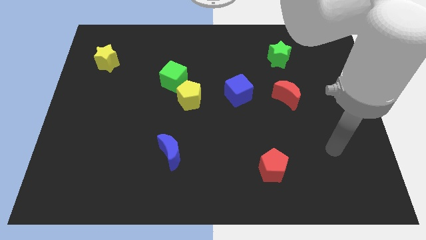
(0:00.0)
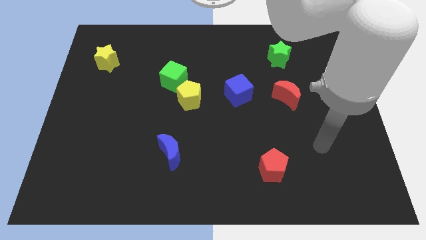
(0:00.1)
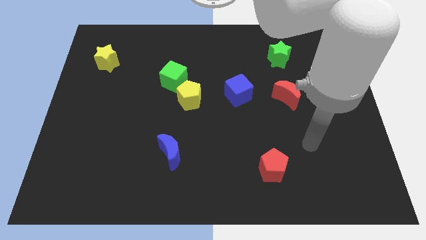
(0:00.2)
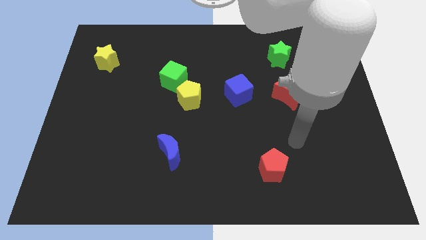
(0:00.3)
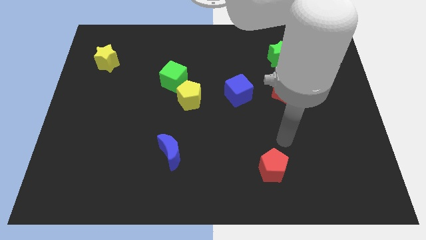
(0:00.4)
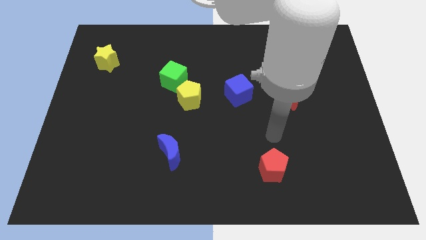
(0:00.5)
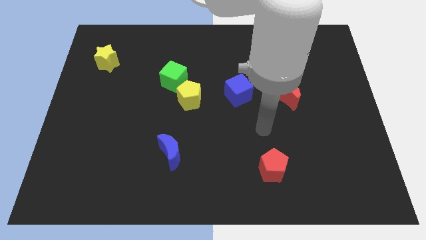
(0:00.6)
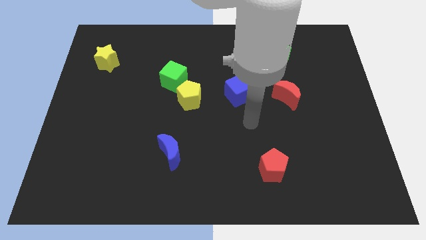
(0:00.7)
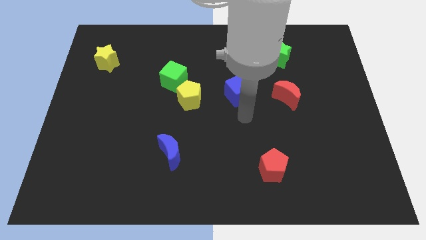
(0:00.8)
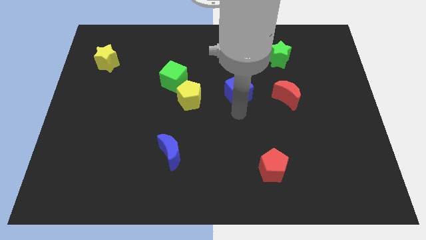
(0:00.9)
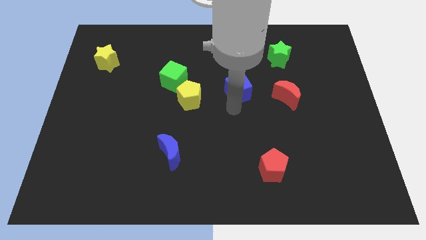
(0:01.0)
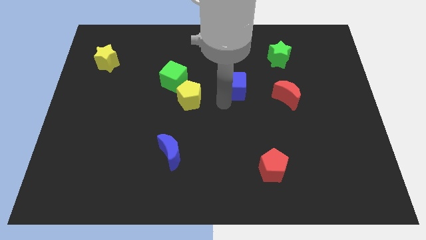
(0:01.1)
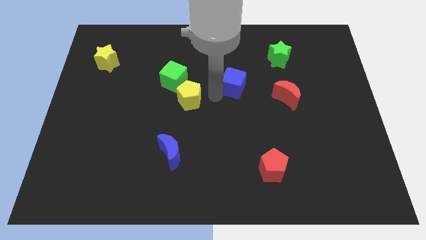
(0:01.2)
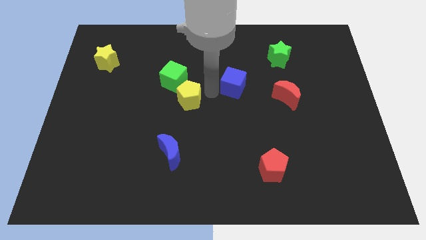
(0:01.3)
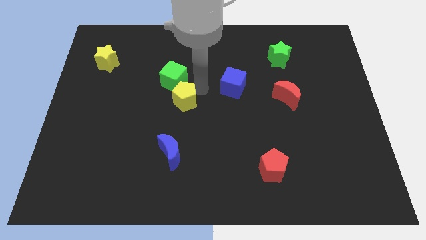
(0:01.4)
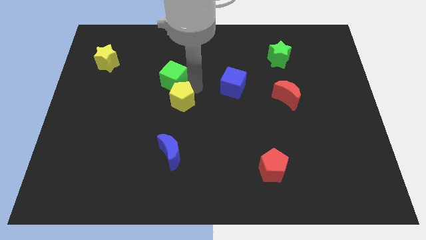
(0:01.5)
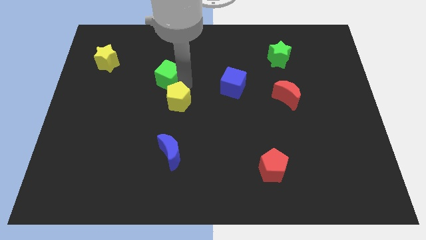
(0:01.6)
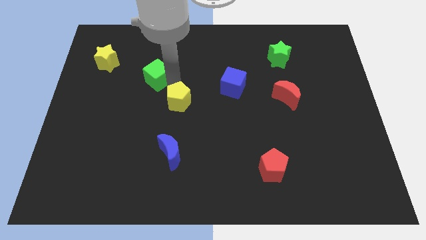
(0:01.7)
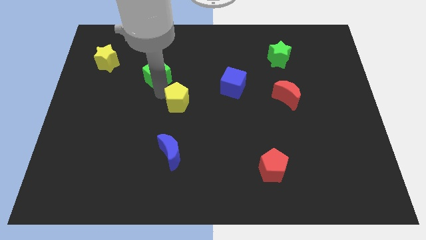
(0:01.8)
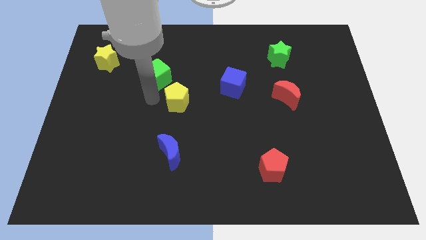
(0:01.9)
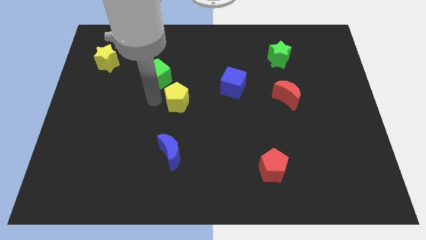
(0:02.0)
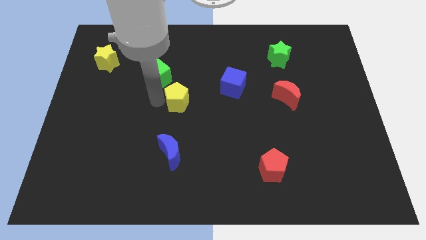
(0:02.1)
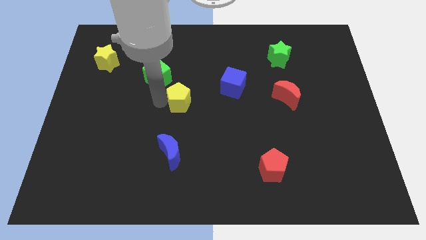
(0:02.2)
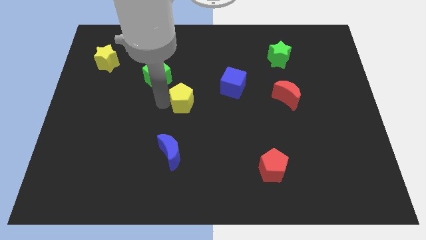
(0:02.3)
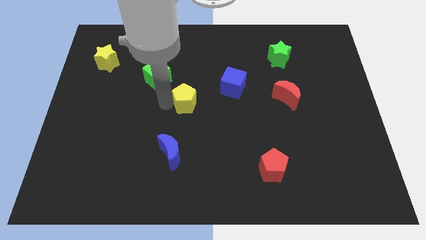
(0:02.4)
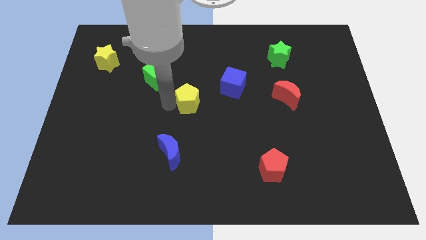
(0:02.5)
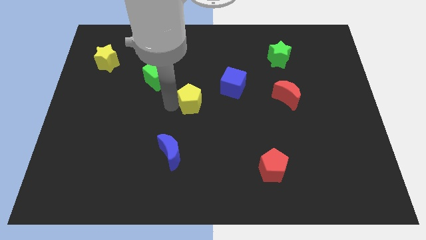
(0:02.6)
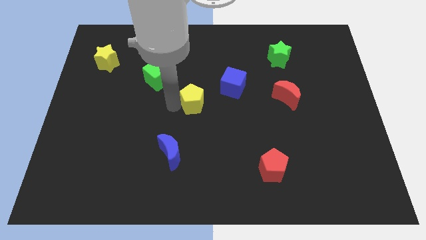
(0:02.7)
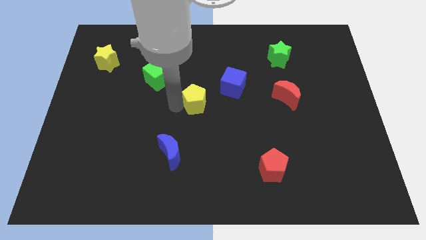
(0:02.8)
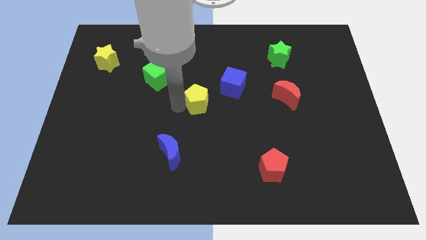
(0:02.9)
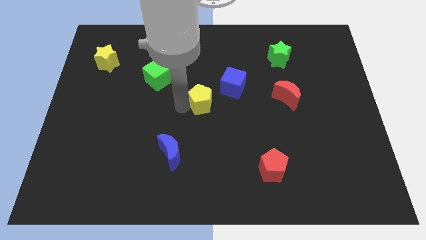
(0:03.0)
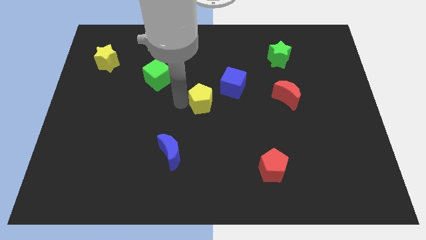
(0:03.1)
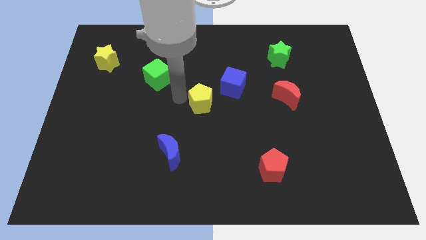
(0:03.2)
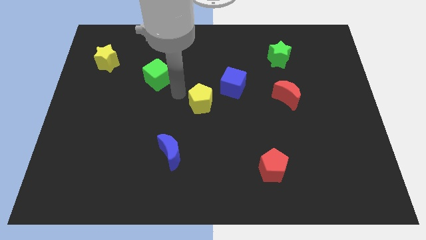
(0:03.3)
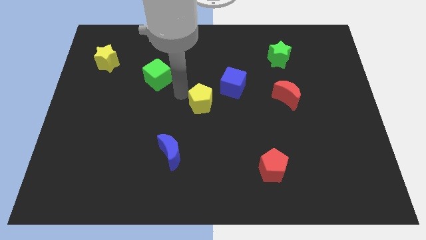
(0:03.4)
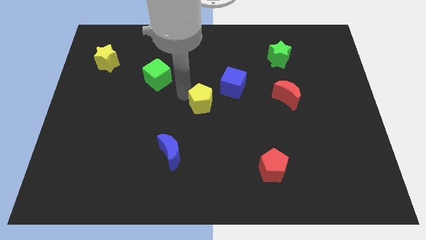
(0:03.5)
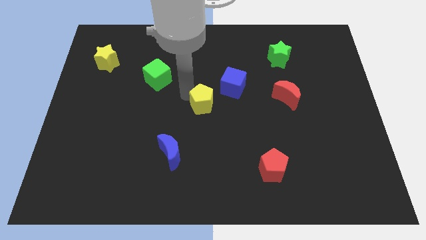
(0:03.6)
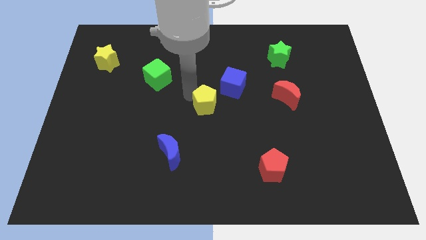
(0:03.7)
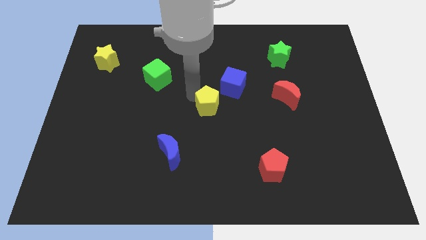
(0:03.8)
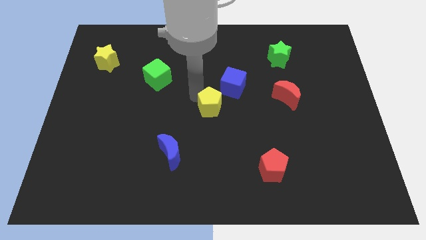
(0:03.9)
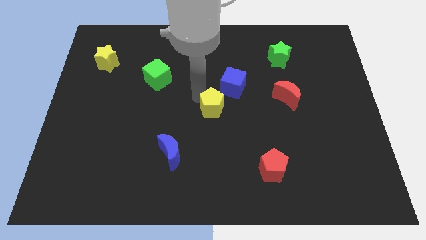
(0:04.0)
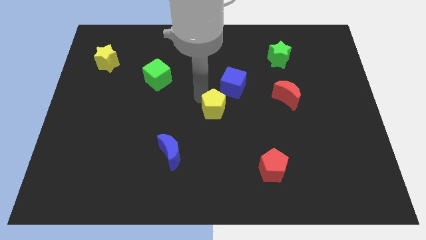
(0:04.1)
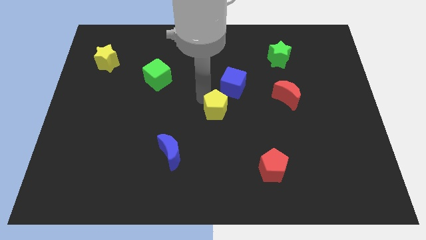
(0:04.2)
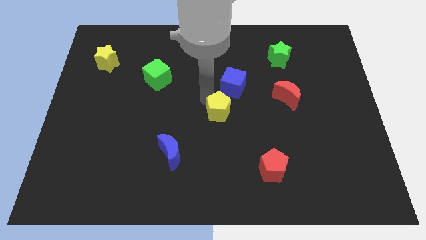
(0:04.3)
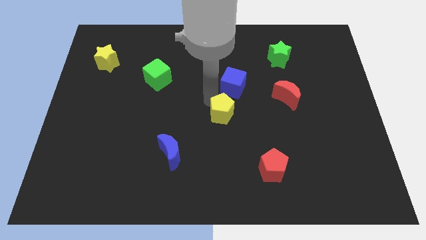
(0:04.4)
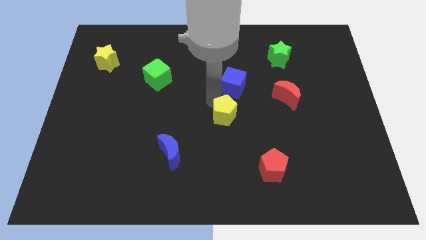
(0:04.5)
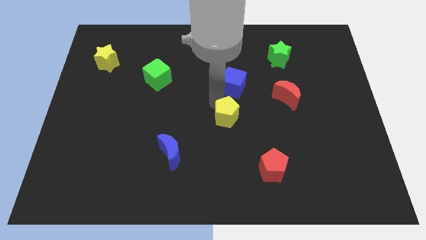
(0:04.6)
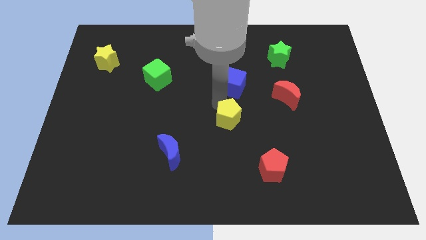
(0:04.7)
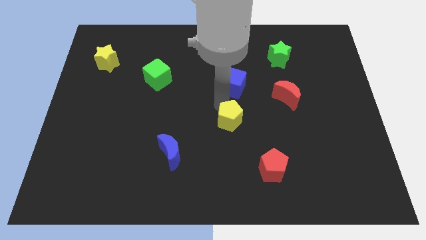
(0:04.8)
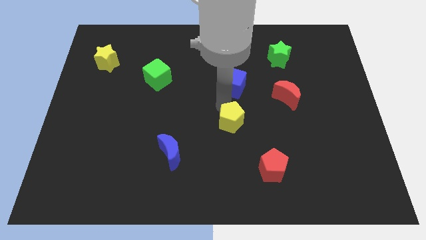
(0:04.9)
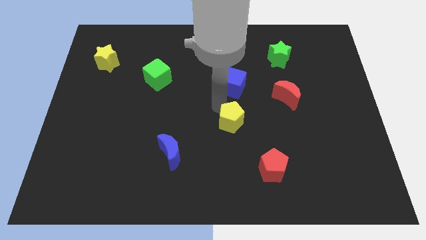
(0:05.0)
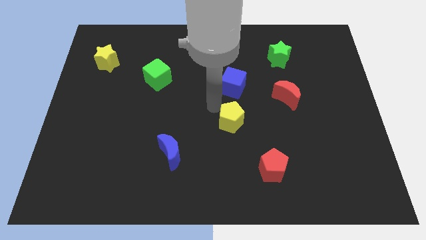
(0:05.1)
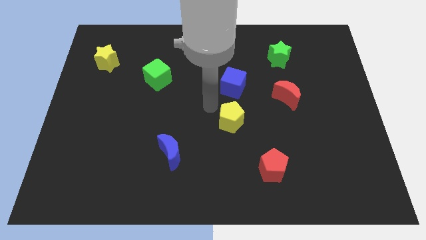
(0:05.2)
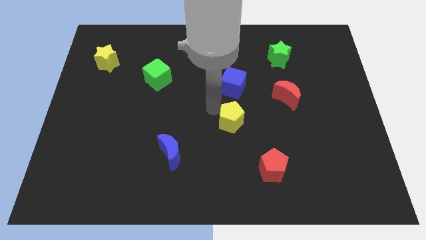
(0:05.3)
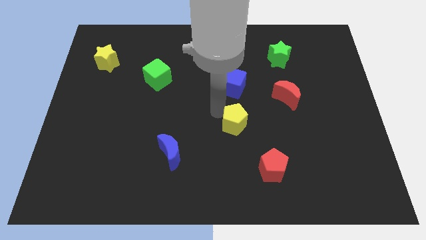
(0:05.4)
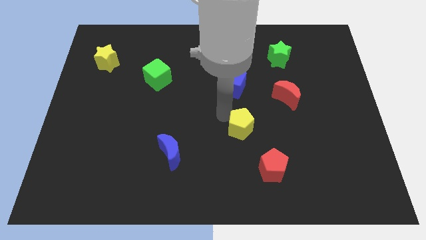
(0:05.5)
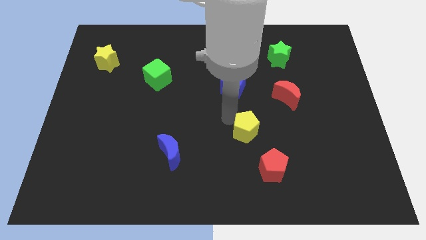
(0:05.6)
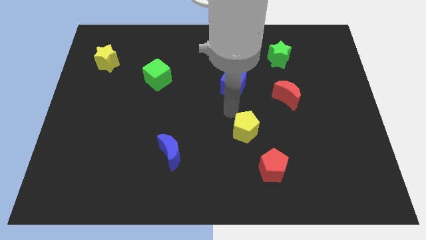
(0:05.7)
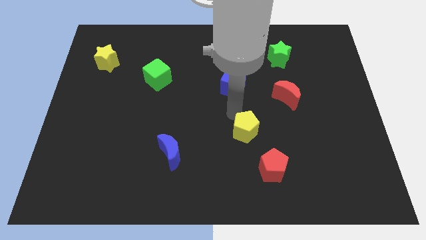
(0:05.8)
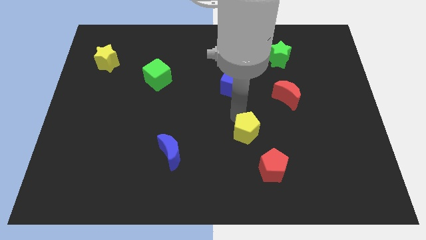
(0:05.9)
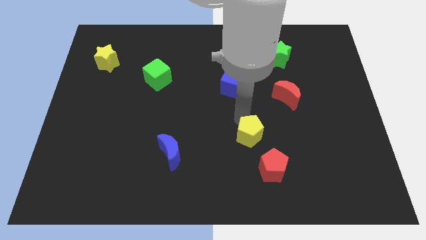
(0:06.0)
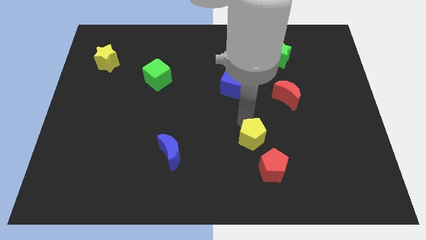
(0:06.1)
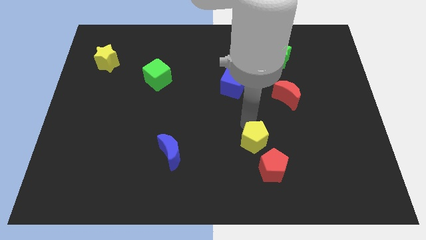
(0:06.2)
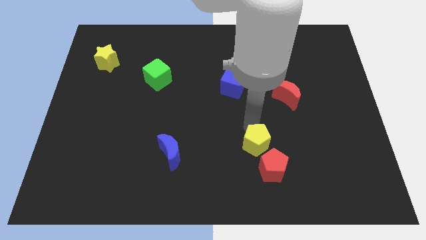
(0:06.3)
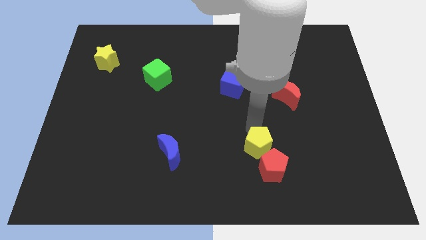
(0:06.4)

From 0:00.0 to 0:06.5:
push the yellow pentagon next to the red pentagon

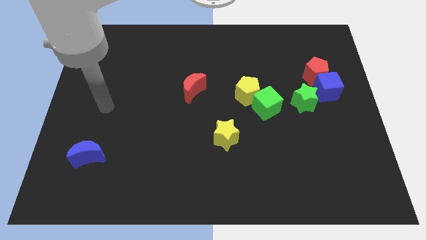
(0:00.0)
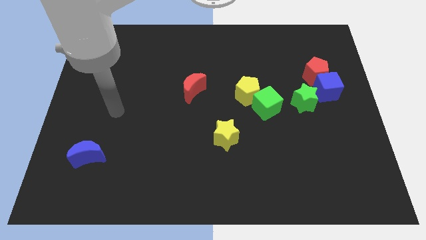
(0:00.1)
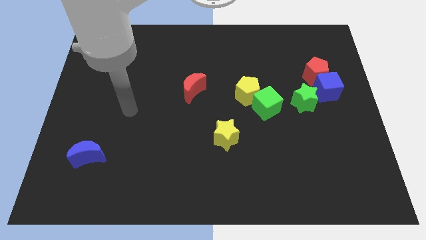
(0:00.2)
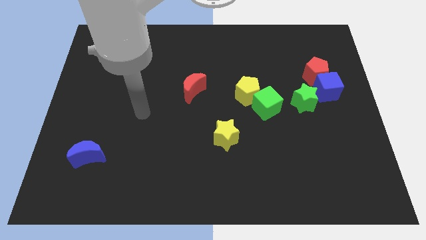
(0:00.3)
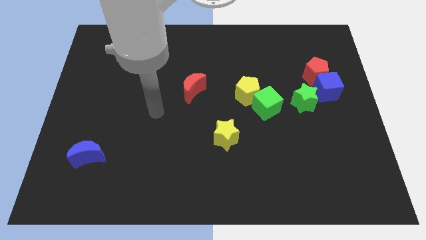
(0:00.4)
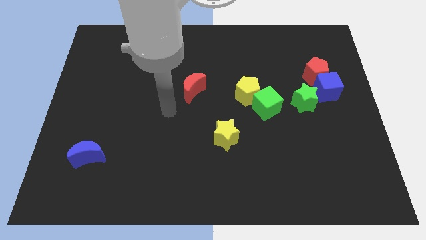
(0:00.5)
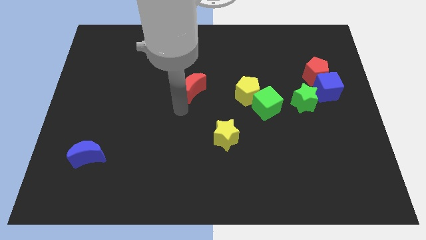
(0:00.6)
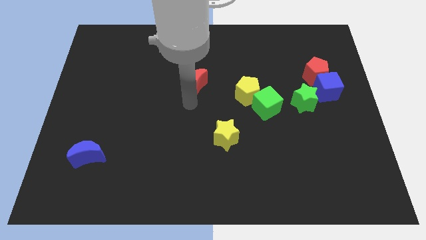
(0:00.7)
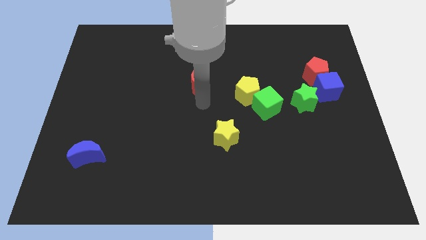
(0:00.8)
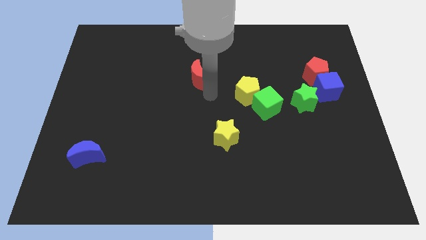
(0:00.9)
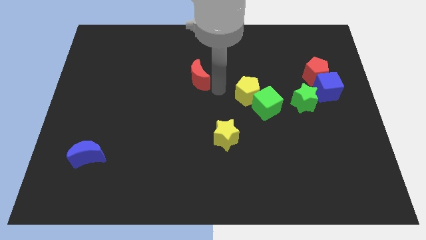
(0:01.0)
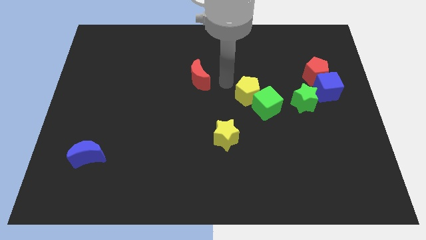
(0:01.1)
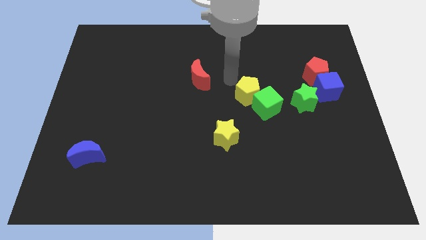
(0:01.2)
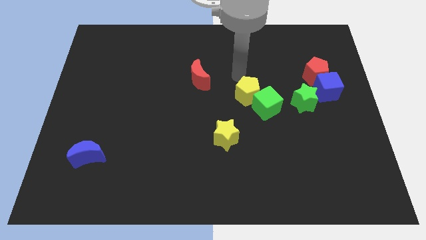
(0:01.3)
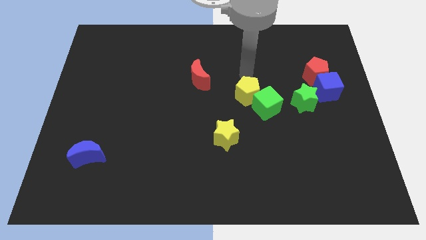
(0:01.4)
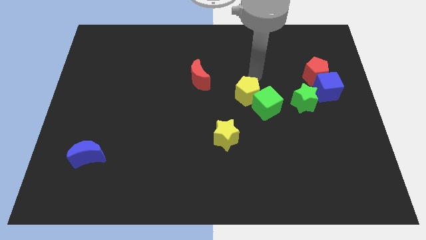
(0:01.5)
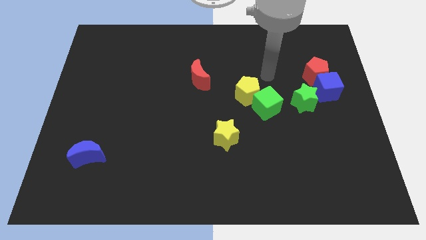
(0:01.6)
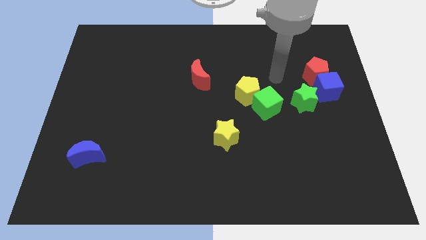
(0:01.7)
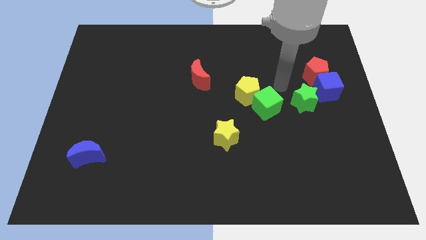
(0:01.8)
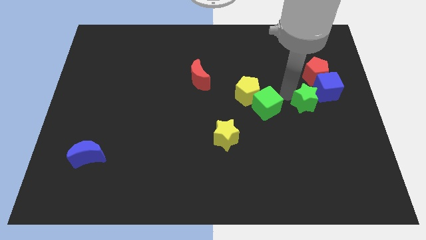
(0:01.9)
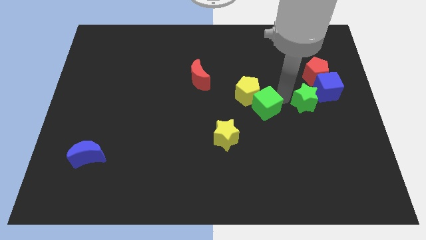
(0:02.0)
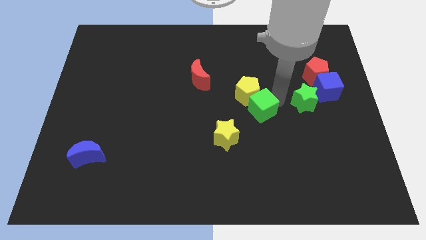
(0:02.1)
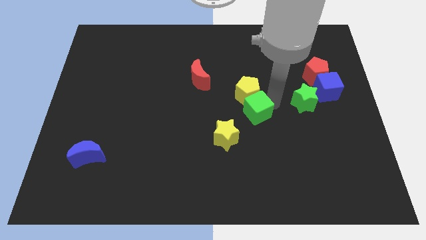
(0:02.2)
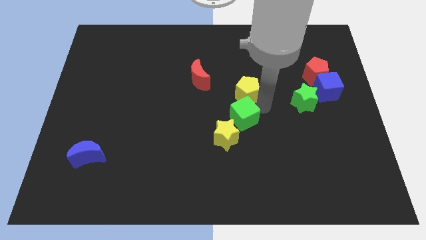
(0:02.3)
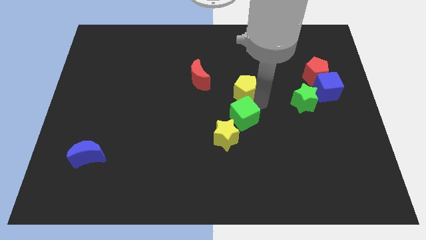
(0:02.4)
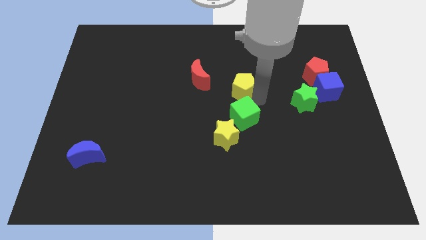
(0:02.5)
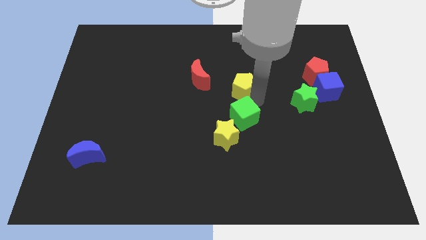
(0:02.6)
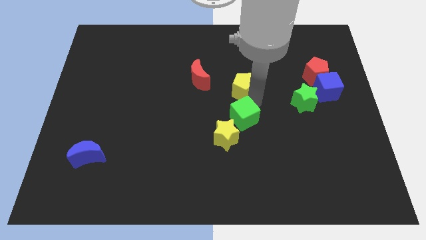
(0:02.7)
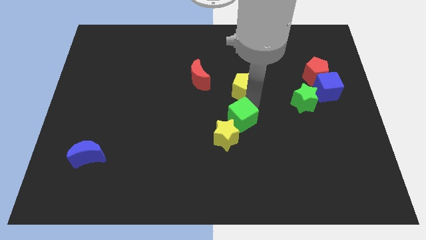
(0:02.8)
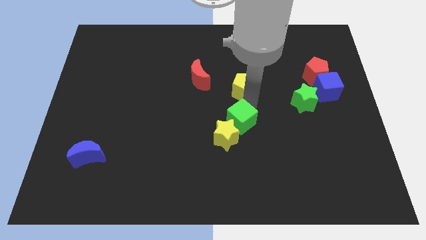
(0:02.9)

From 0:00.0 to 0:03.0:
push the green cube to the yellow star
